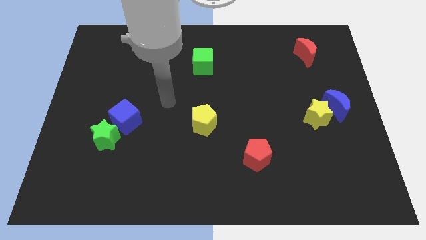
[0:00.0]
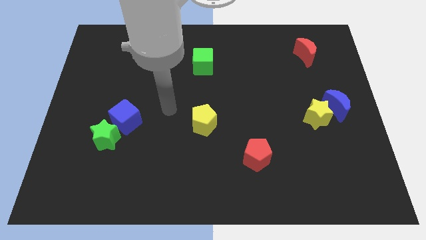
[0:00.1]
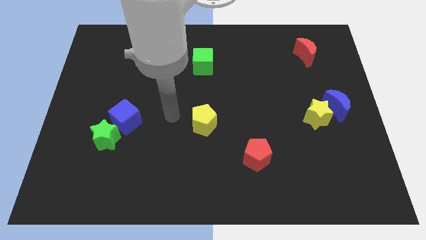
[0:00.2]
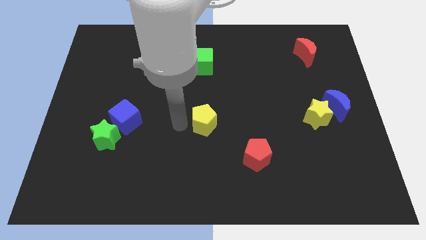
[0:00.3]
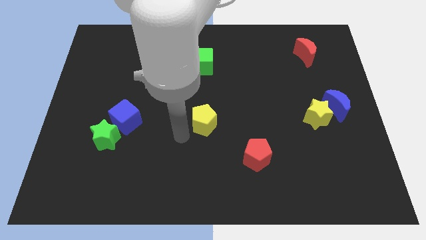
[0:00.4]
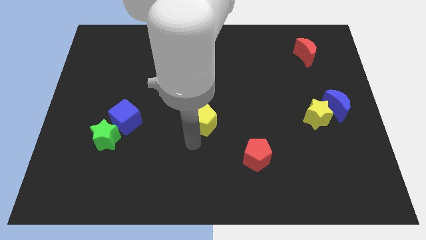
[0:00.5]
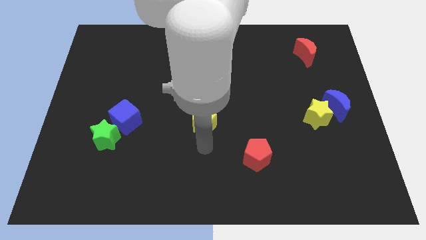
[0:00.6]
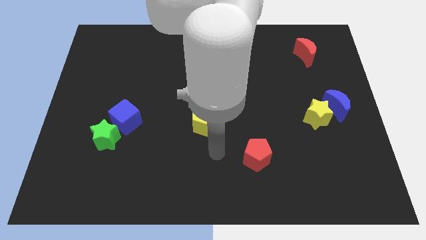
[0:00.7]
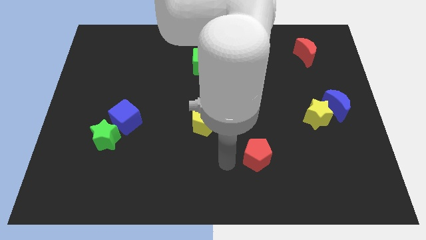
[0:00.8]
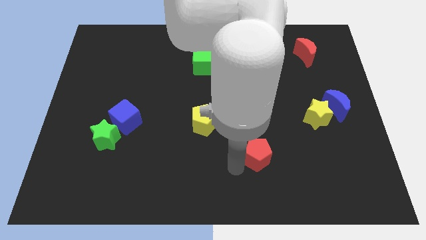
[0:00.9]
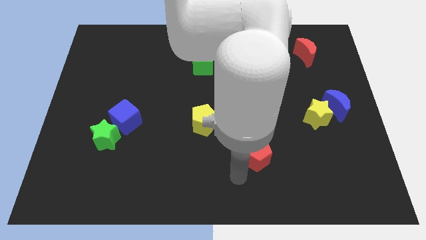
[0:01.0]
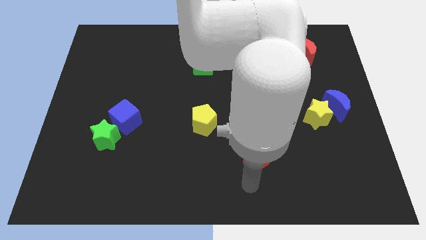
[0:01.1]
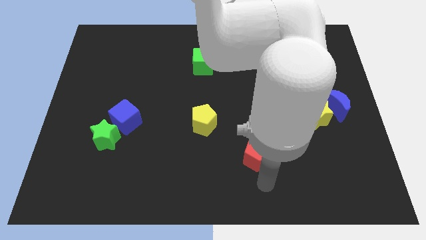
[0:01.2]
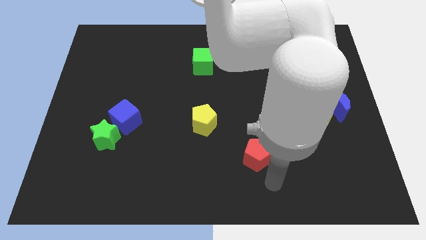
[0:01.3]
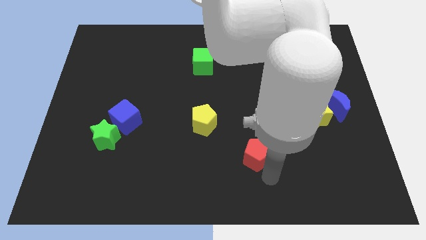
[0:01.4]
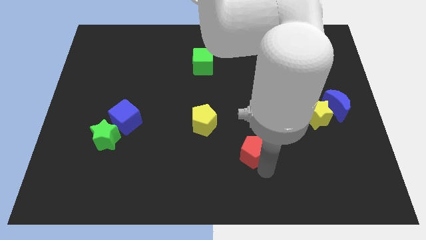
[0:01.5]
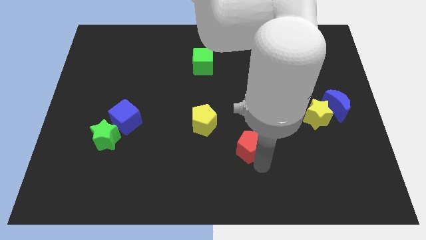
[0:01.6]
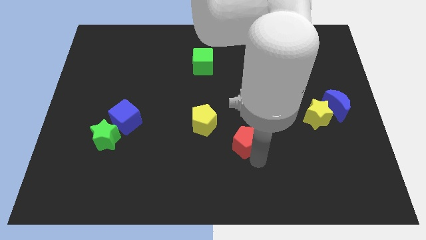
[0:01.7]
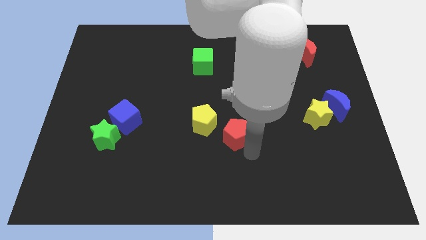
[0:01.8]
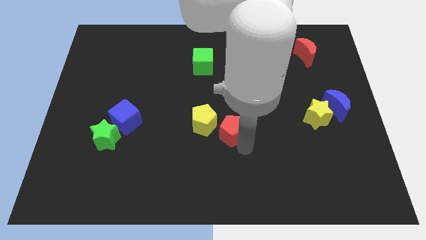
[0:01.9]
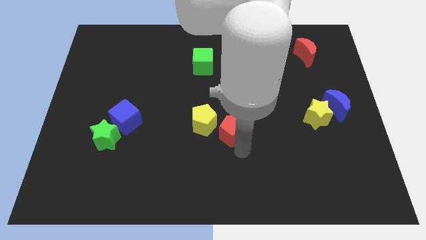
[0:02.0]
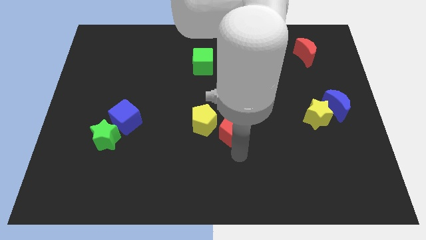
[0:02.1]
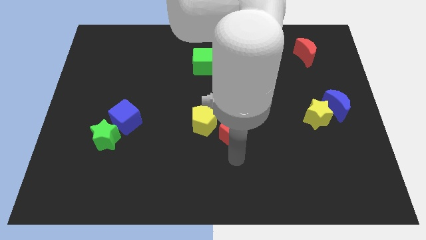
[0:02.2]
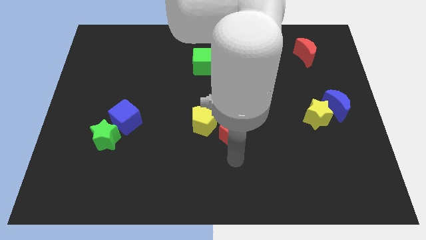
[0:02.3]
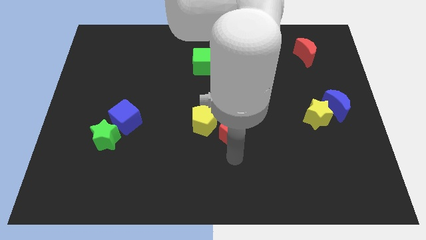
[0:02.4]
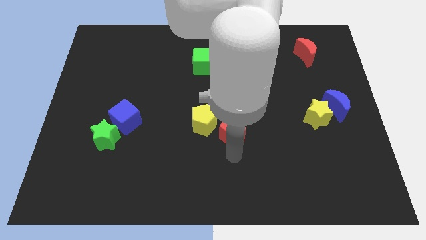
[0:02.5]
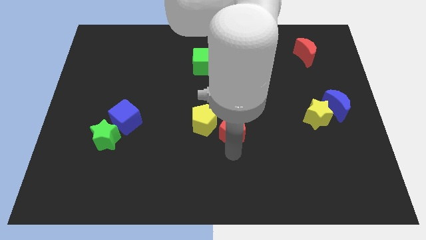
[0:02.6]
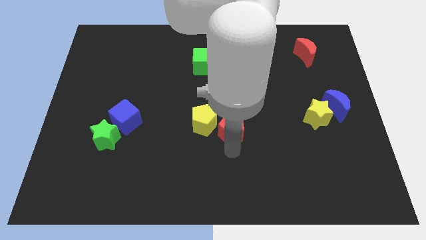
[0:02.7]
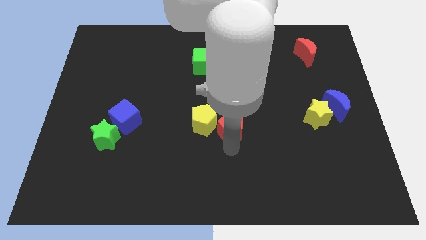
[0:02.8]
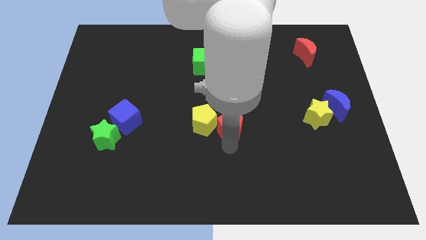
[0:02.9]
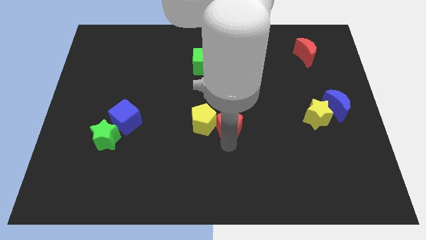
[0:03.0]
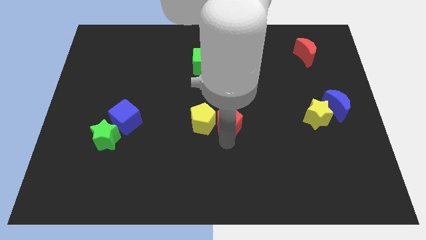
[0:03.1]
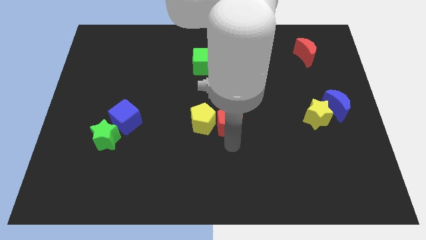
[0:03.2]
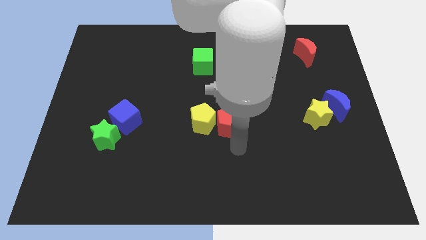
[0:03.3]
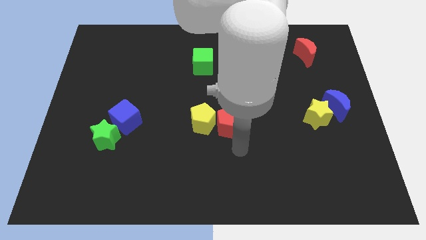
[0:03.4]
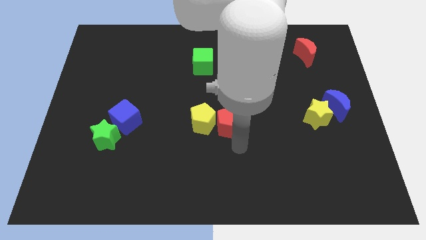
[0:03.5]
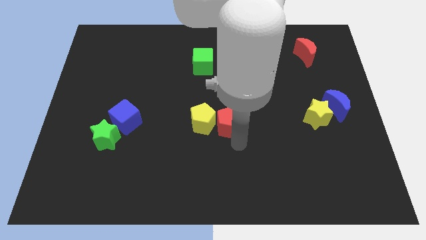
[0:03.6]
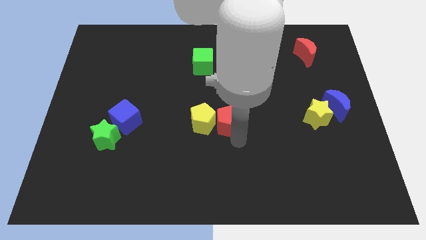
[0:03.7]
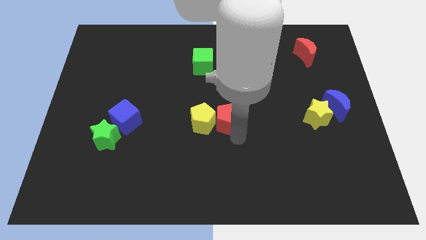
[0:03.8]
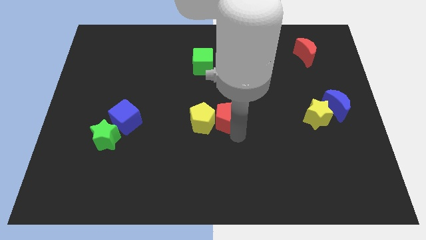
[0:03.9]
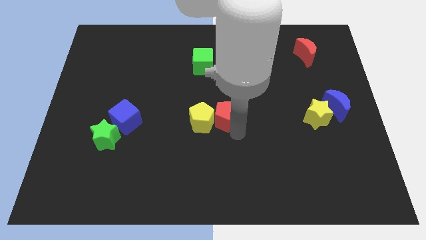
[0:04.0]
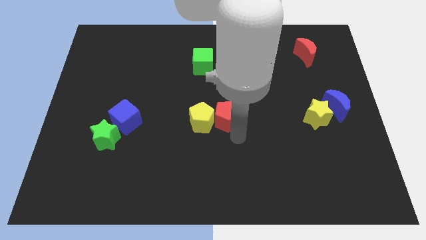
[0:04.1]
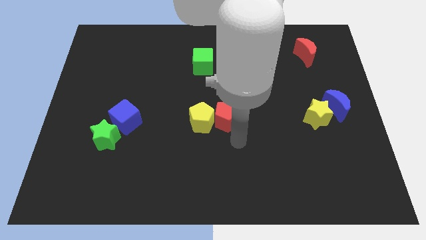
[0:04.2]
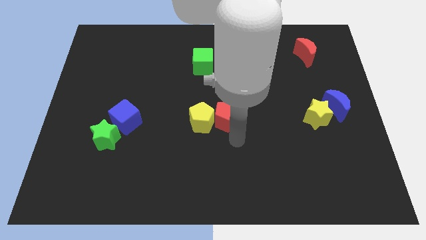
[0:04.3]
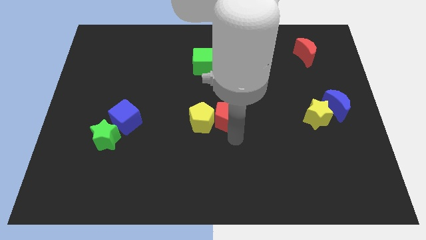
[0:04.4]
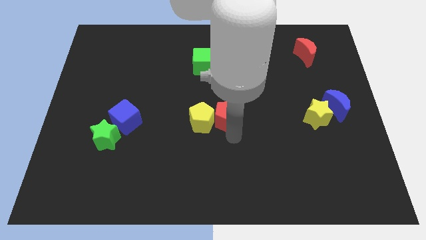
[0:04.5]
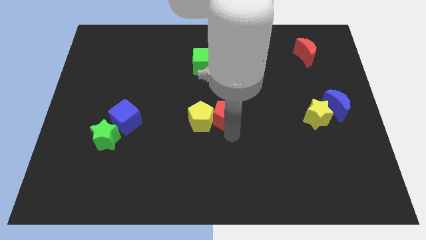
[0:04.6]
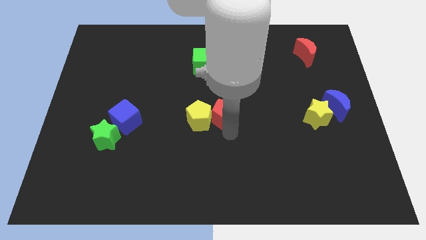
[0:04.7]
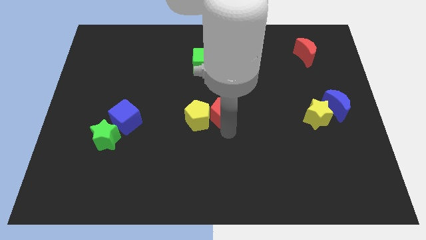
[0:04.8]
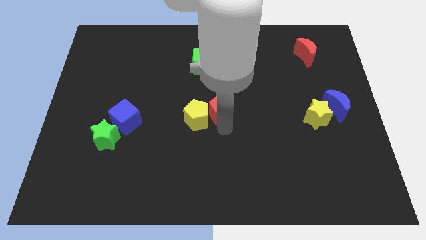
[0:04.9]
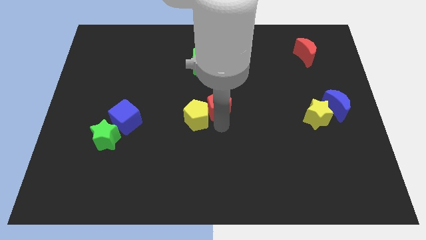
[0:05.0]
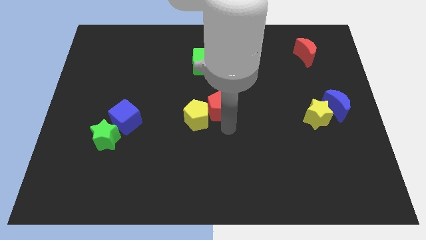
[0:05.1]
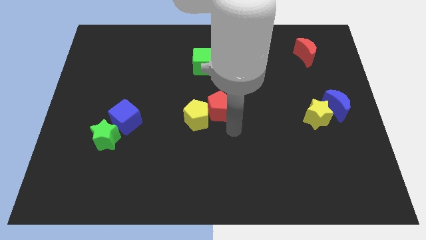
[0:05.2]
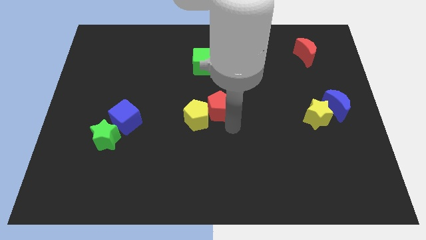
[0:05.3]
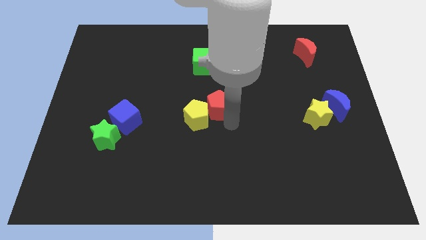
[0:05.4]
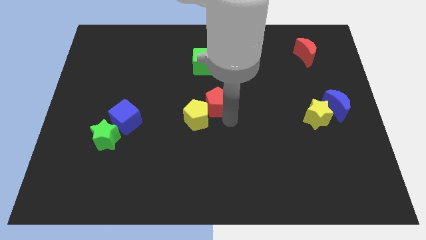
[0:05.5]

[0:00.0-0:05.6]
slide the red pentagon to the top of the yellow pentagon
